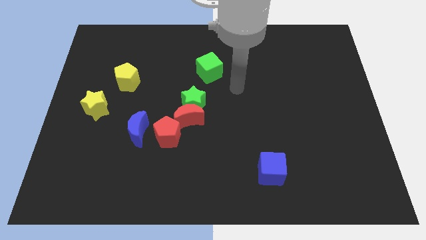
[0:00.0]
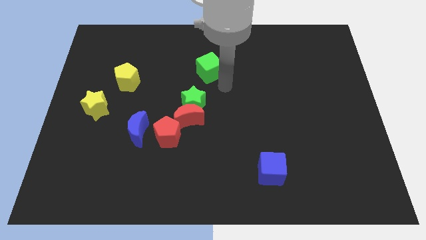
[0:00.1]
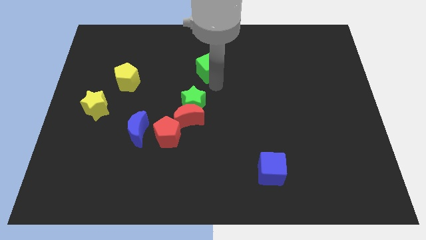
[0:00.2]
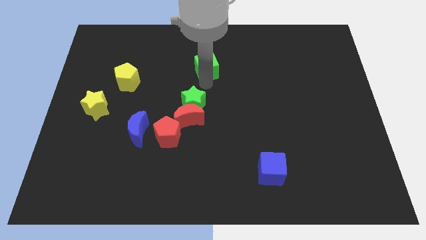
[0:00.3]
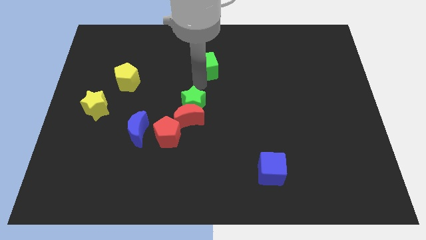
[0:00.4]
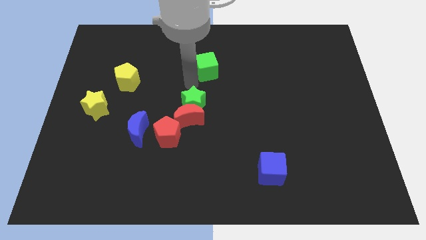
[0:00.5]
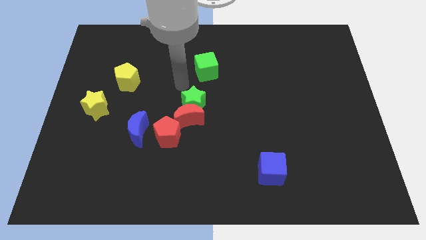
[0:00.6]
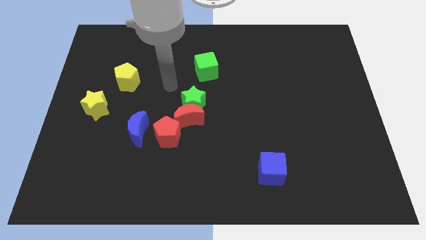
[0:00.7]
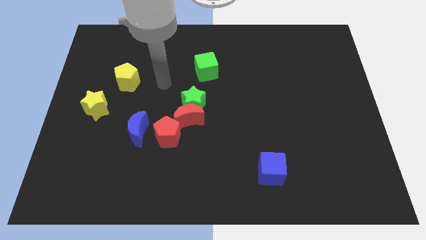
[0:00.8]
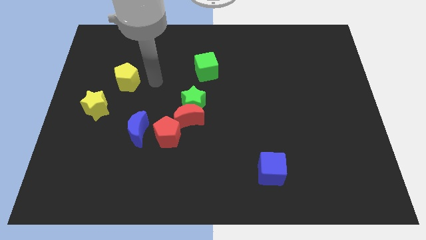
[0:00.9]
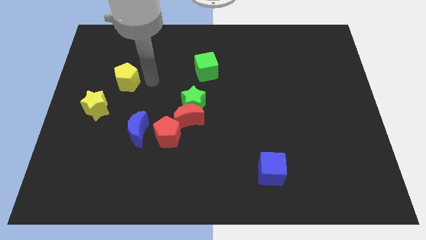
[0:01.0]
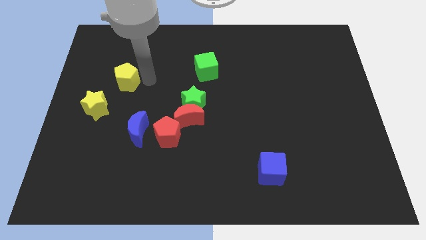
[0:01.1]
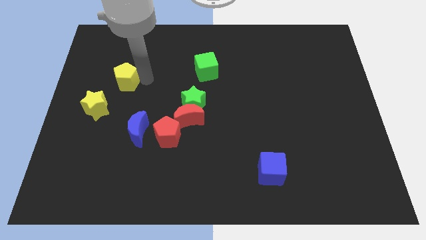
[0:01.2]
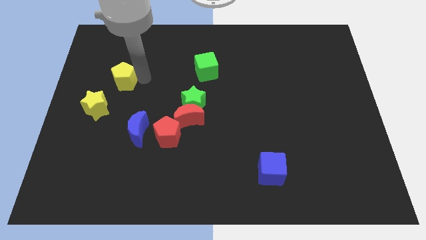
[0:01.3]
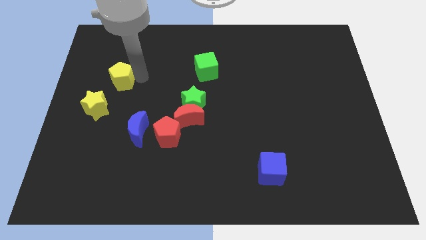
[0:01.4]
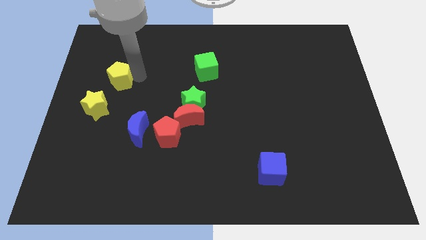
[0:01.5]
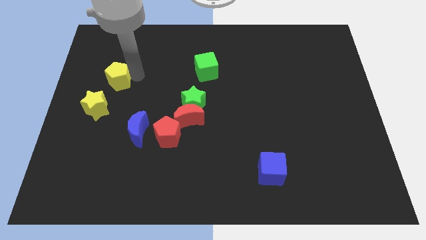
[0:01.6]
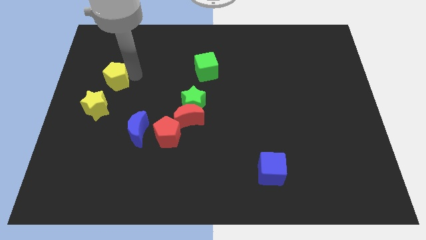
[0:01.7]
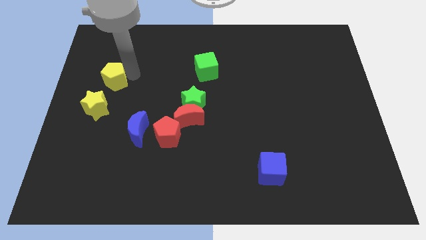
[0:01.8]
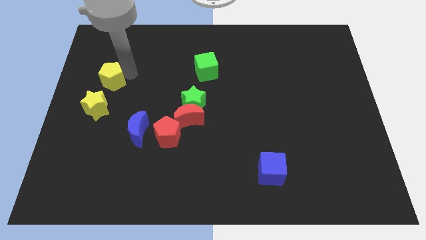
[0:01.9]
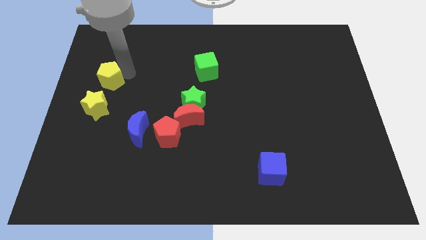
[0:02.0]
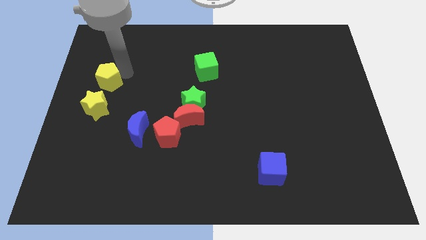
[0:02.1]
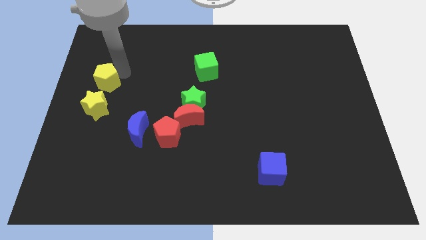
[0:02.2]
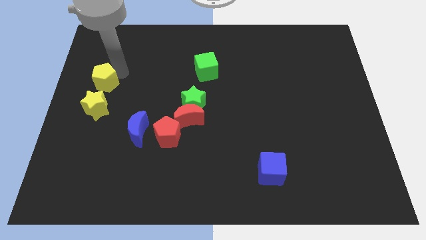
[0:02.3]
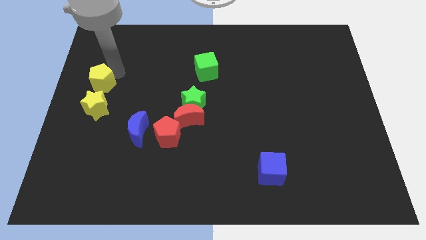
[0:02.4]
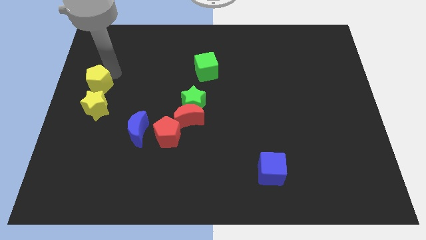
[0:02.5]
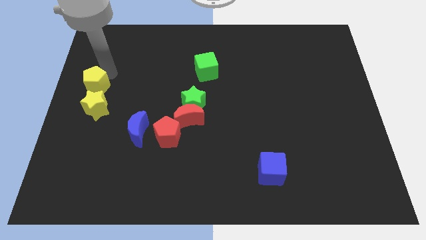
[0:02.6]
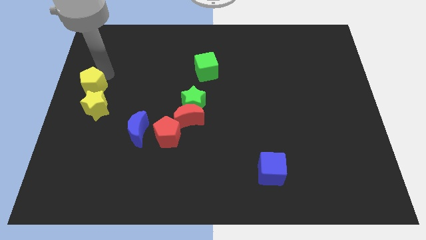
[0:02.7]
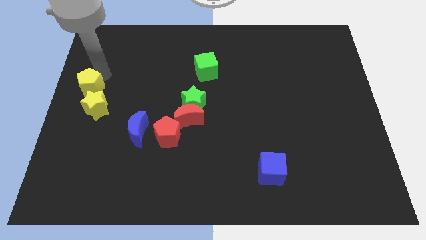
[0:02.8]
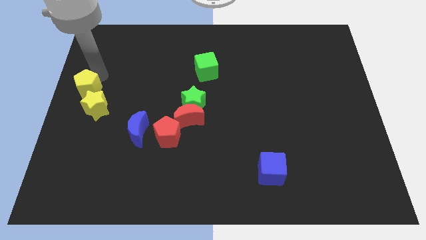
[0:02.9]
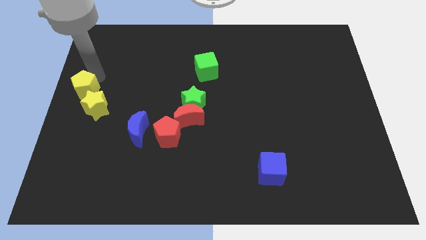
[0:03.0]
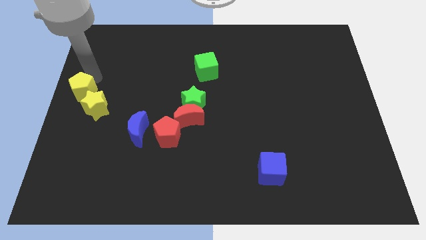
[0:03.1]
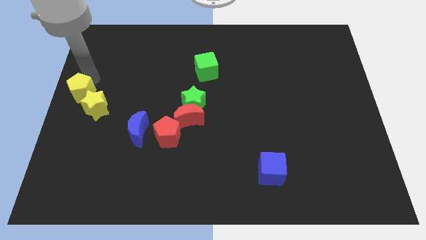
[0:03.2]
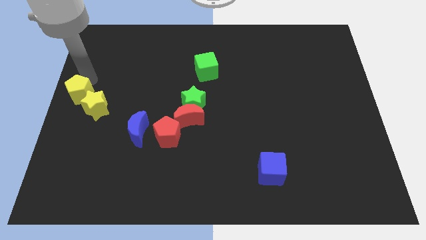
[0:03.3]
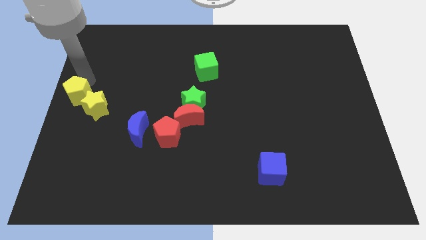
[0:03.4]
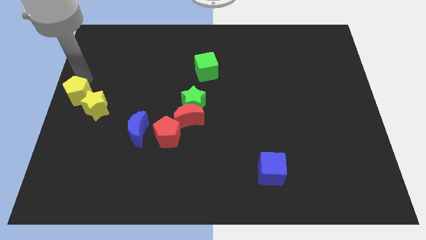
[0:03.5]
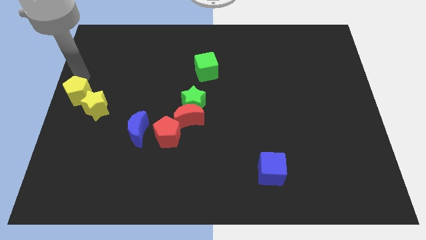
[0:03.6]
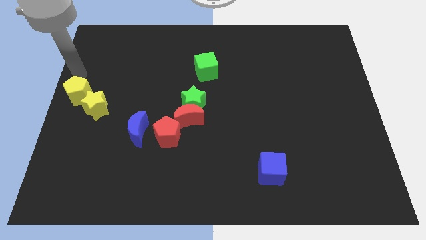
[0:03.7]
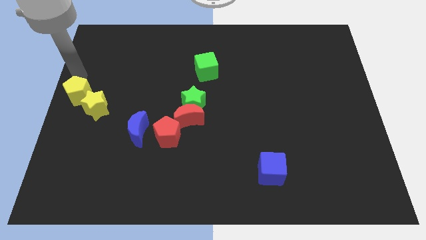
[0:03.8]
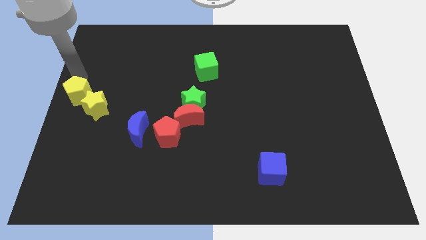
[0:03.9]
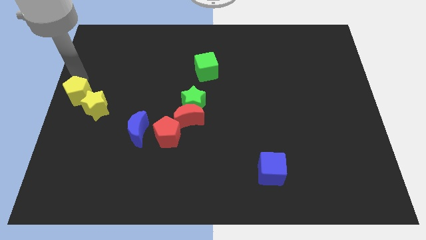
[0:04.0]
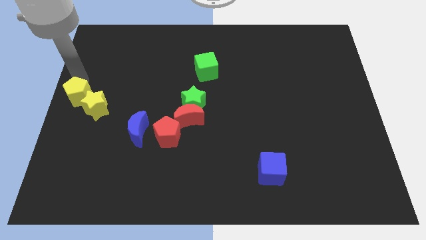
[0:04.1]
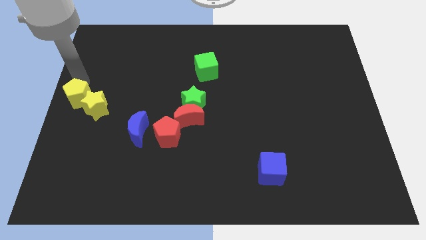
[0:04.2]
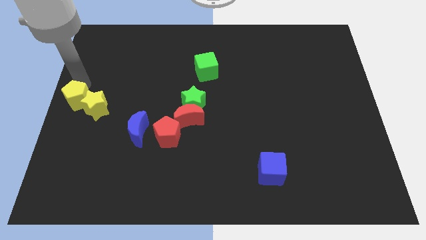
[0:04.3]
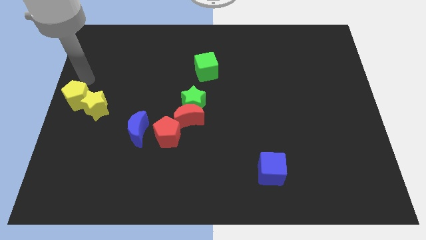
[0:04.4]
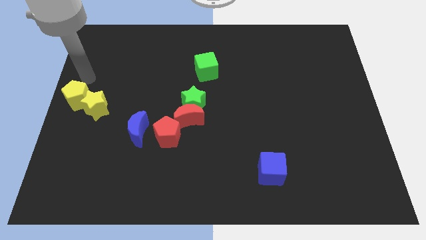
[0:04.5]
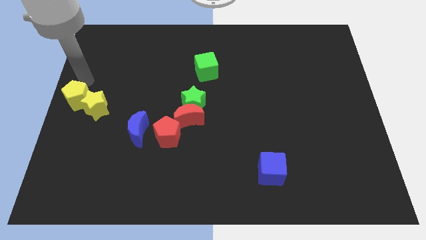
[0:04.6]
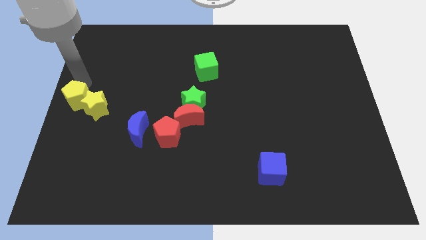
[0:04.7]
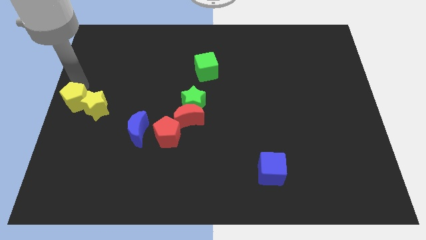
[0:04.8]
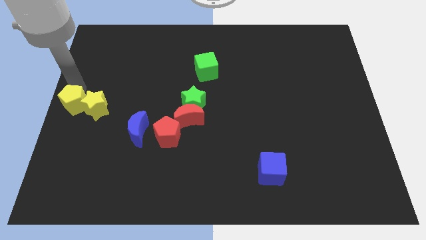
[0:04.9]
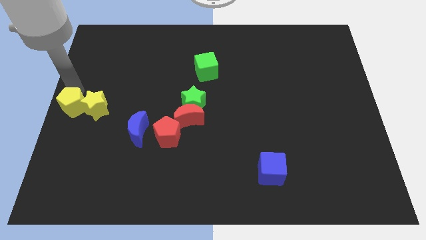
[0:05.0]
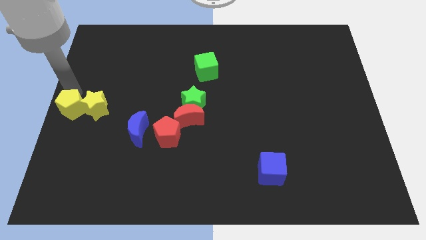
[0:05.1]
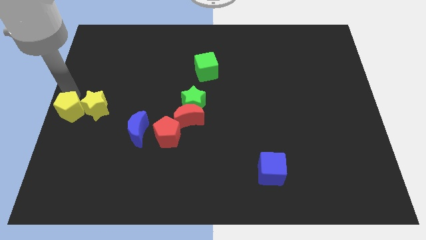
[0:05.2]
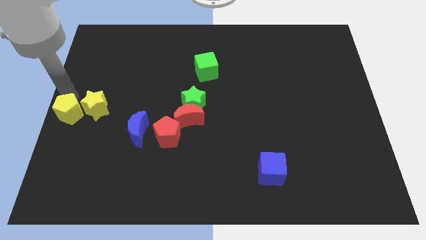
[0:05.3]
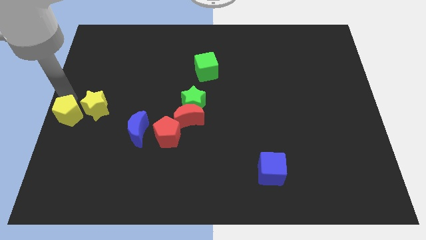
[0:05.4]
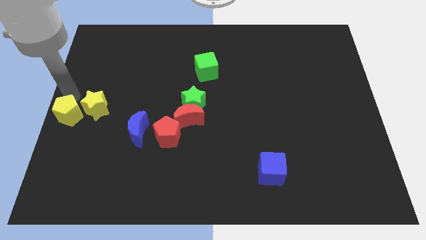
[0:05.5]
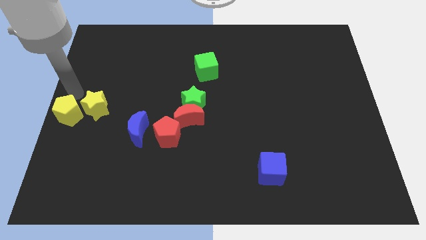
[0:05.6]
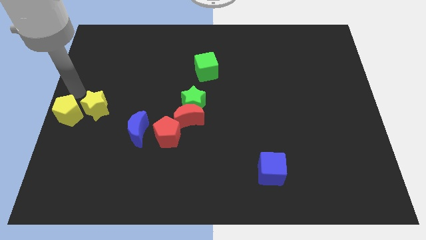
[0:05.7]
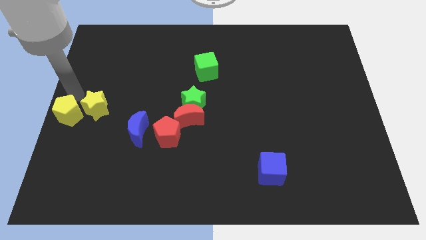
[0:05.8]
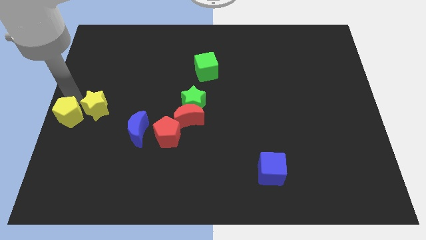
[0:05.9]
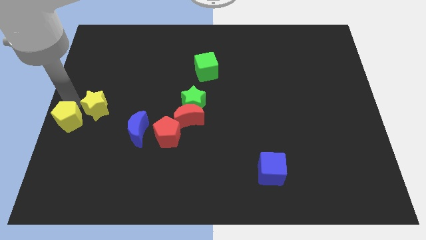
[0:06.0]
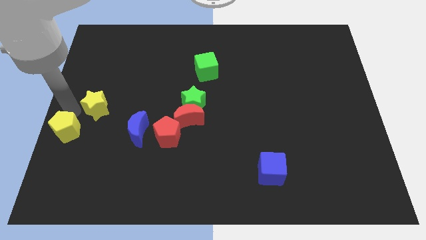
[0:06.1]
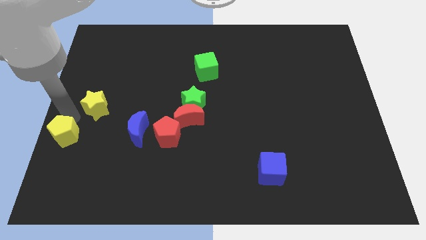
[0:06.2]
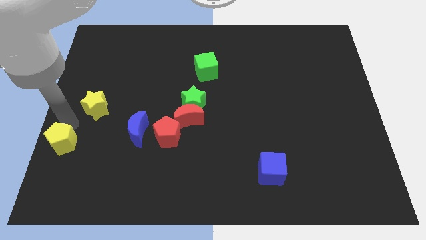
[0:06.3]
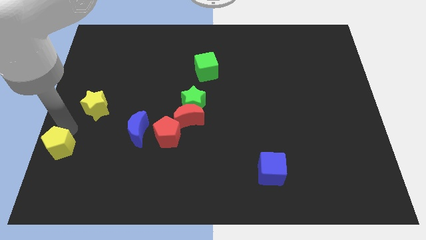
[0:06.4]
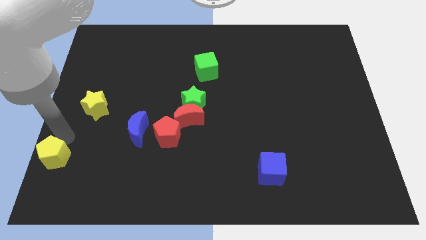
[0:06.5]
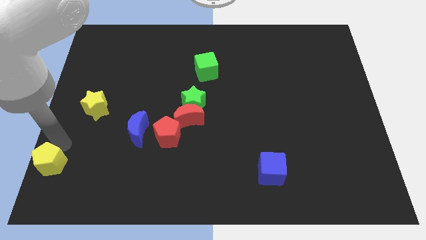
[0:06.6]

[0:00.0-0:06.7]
put the yellow pentagon to the bottom left corner
